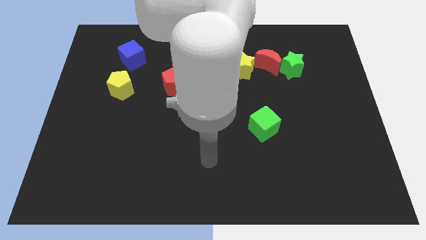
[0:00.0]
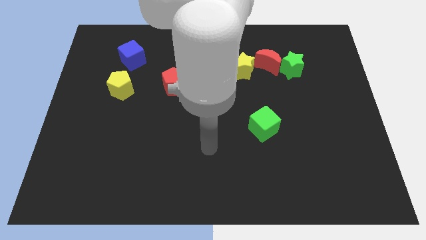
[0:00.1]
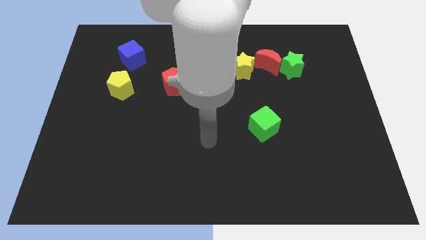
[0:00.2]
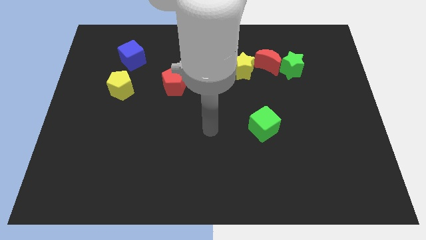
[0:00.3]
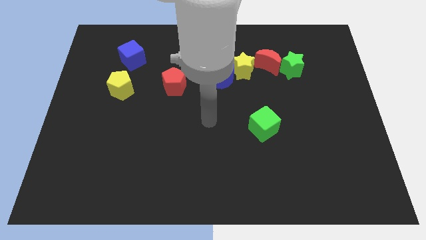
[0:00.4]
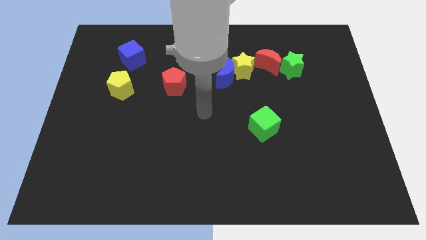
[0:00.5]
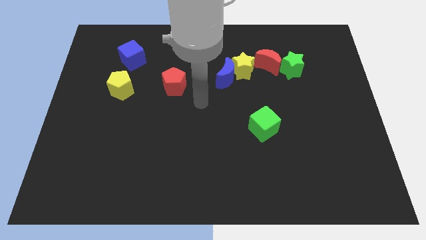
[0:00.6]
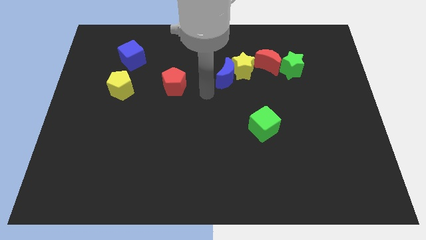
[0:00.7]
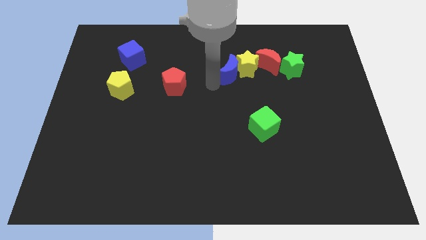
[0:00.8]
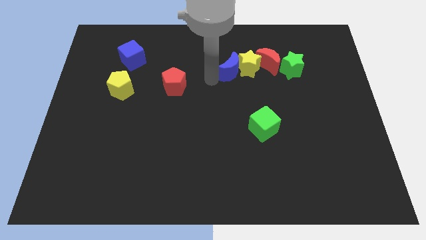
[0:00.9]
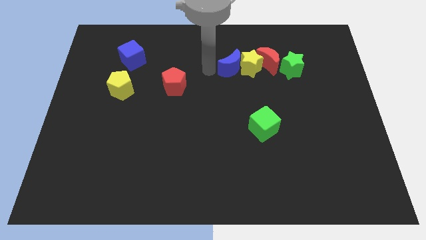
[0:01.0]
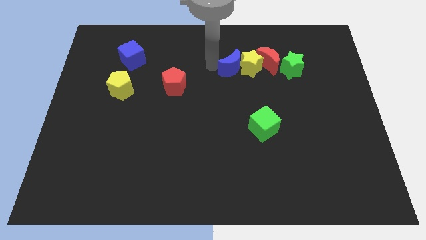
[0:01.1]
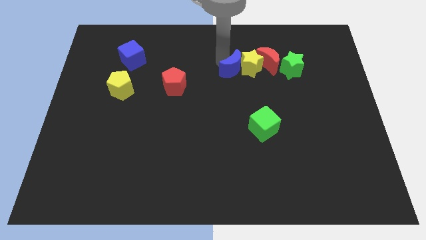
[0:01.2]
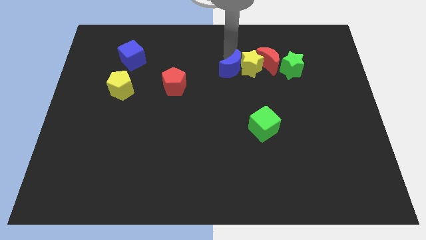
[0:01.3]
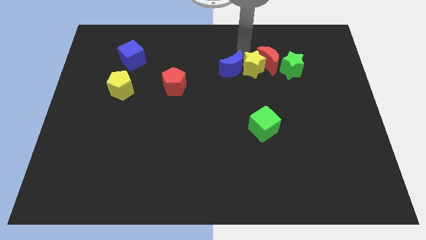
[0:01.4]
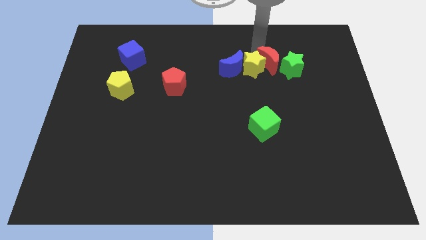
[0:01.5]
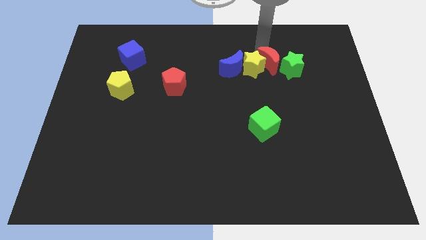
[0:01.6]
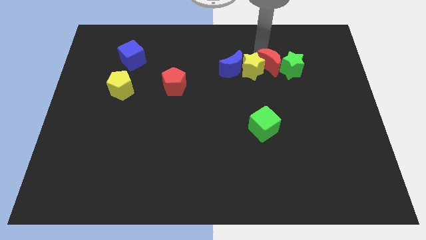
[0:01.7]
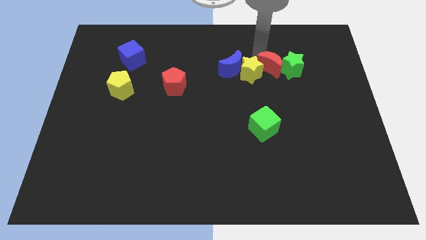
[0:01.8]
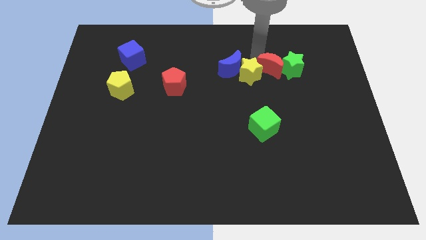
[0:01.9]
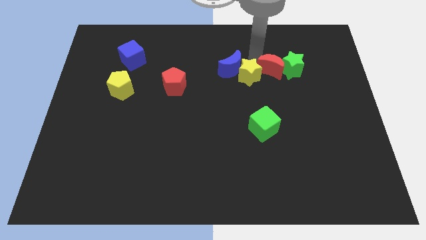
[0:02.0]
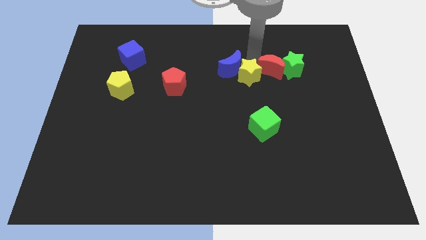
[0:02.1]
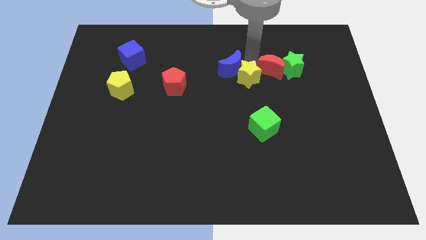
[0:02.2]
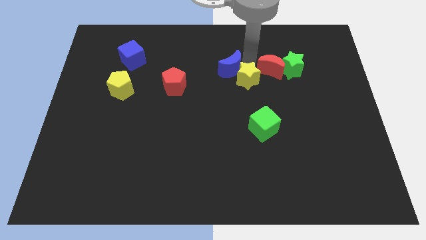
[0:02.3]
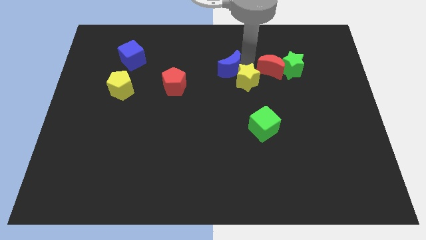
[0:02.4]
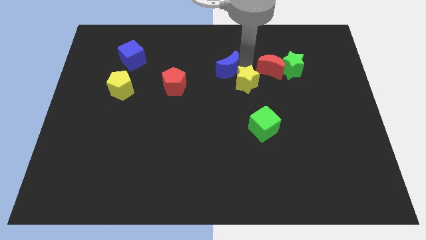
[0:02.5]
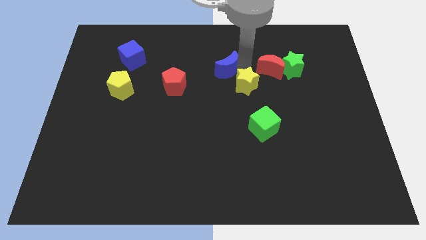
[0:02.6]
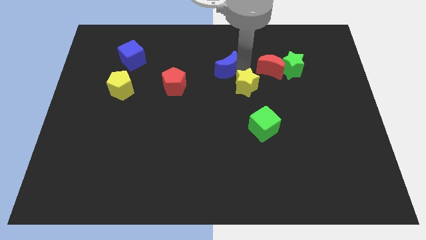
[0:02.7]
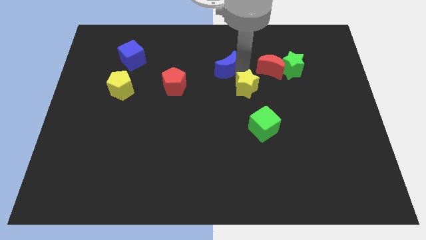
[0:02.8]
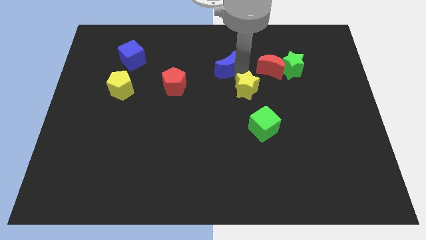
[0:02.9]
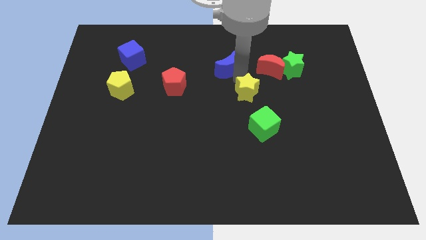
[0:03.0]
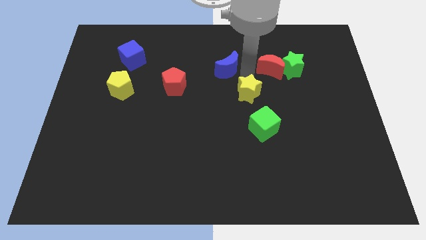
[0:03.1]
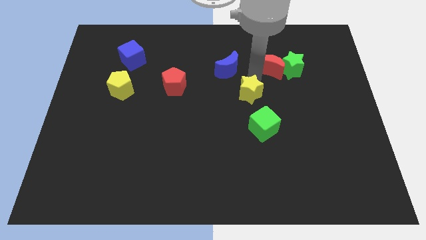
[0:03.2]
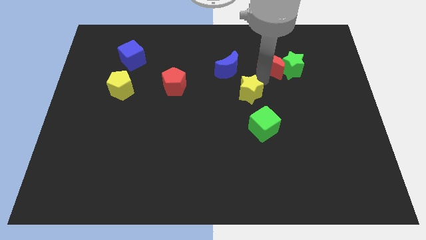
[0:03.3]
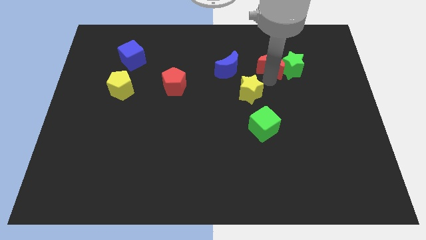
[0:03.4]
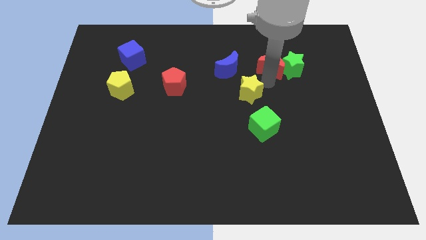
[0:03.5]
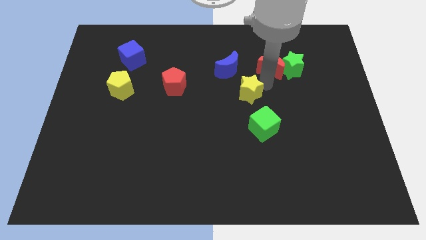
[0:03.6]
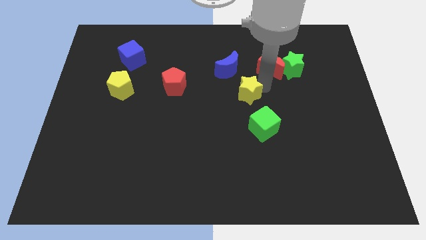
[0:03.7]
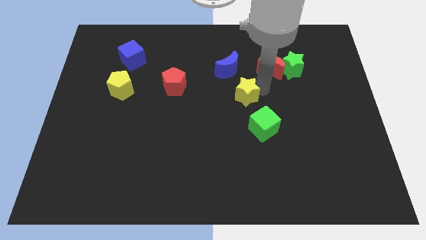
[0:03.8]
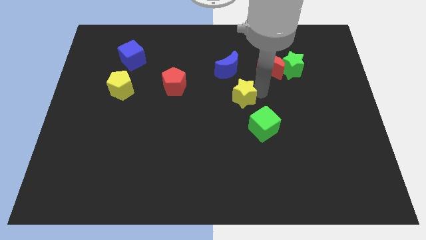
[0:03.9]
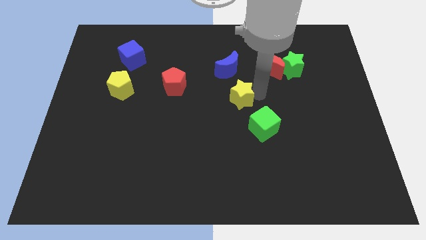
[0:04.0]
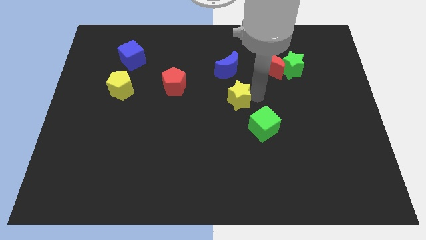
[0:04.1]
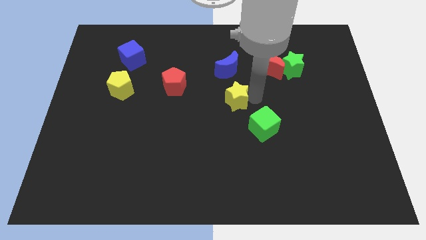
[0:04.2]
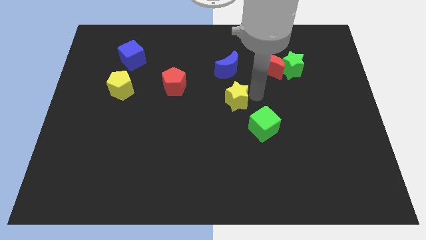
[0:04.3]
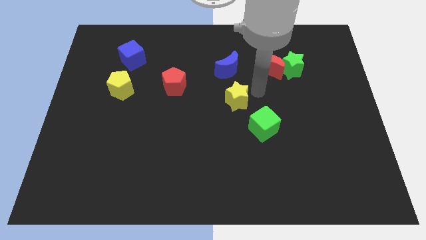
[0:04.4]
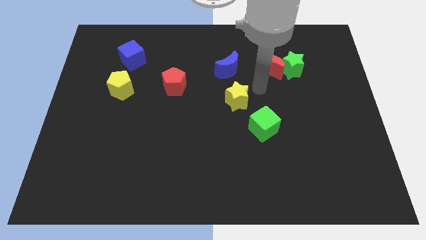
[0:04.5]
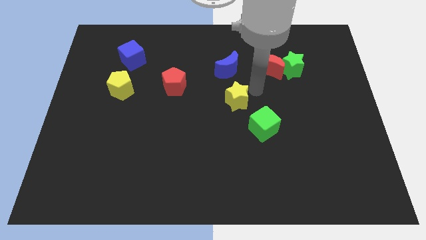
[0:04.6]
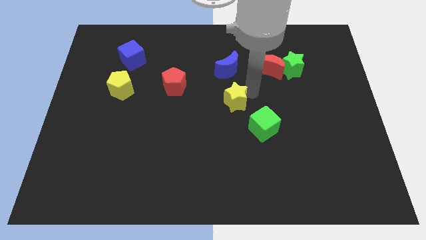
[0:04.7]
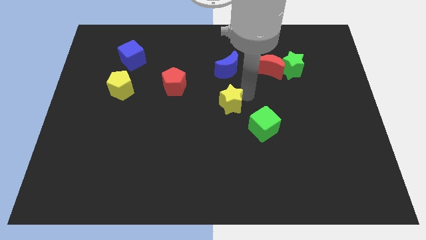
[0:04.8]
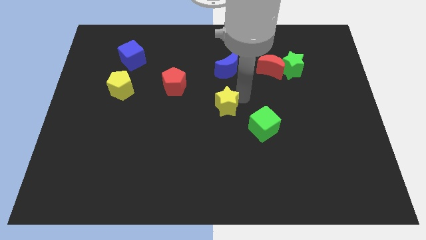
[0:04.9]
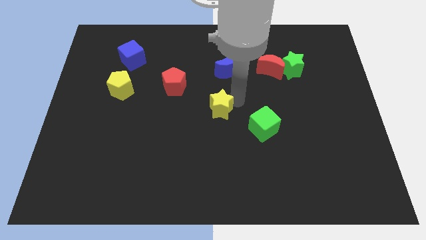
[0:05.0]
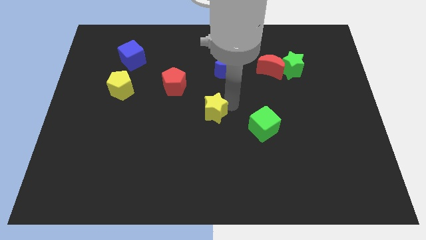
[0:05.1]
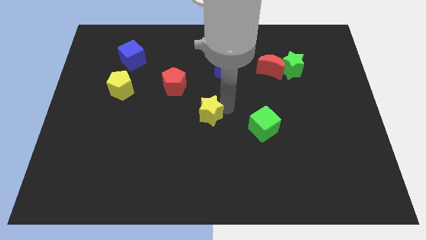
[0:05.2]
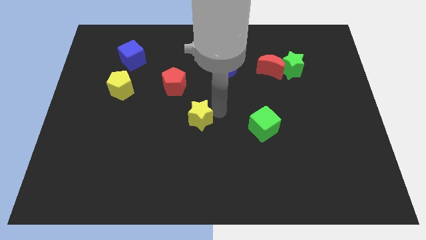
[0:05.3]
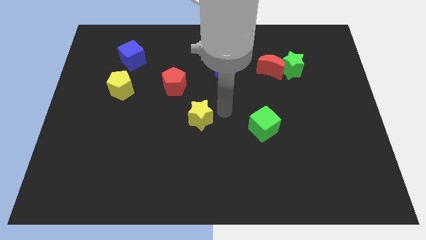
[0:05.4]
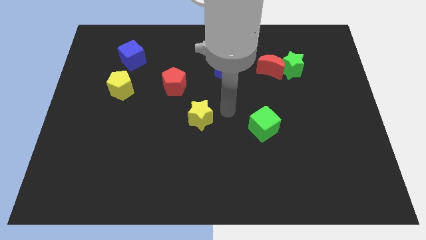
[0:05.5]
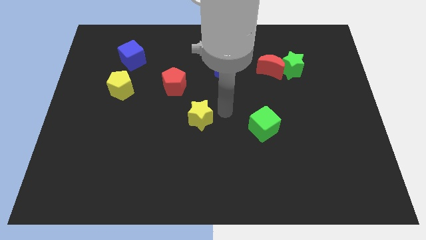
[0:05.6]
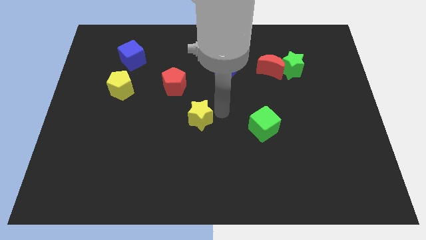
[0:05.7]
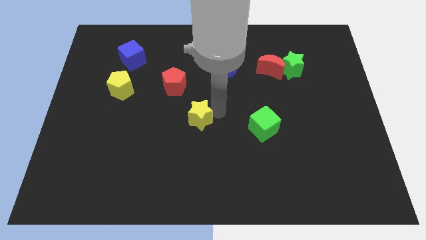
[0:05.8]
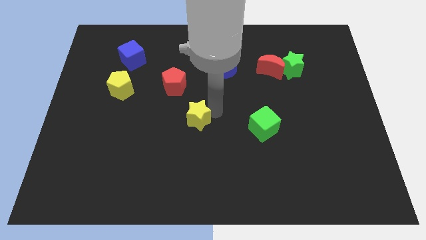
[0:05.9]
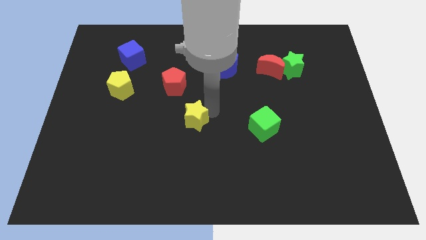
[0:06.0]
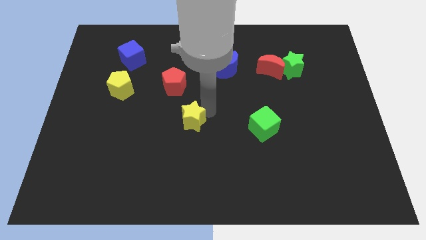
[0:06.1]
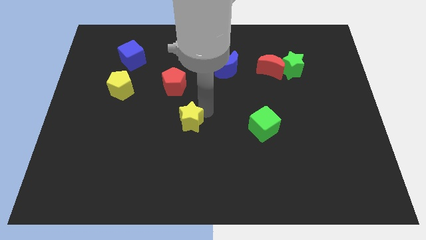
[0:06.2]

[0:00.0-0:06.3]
push the yellow star down and left

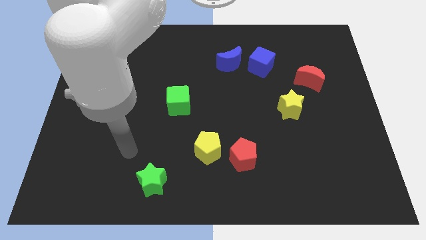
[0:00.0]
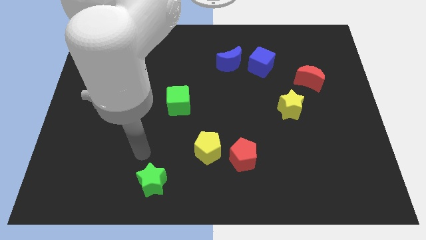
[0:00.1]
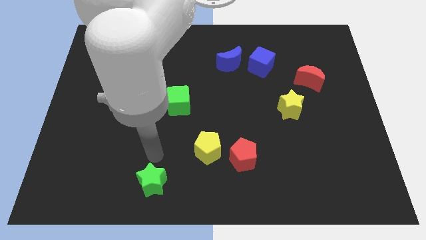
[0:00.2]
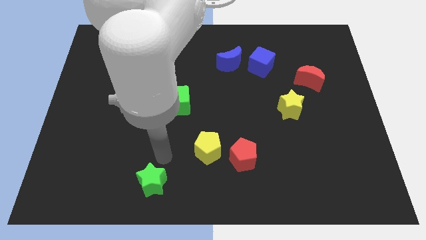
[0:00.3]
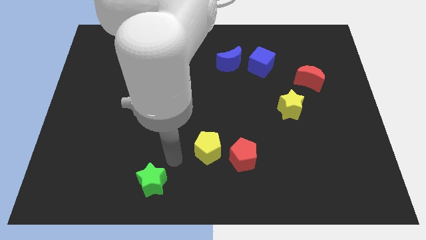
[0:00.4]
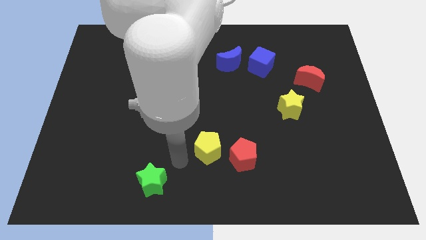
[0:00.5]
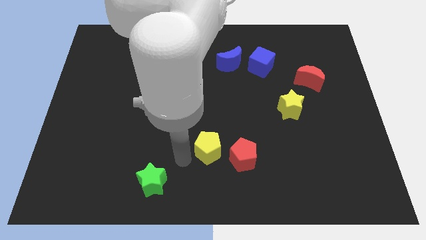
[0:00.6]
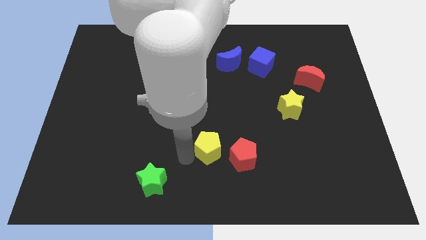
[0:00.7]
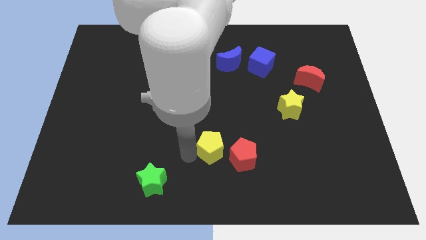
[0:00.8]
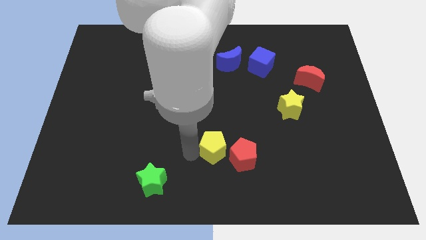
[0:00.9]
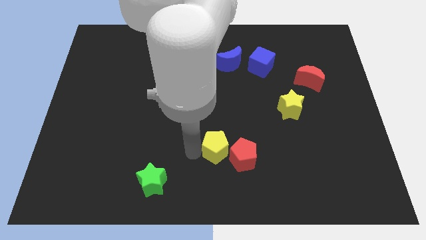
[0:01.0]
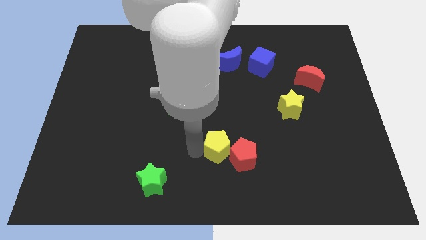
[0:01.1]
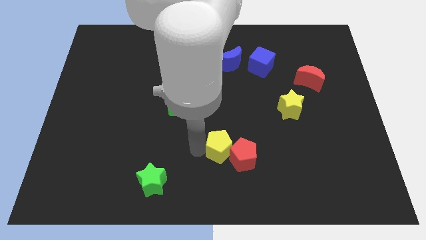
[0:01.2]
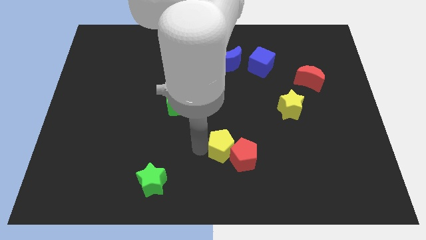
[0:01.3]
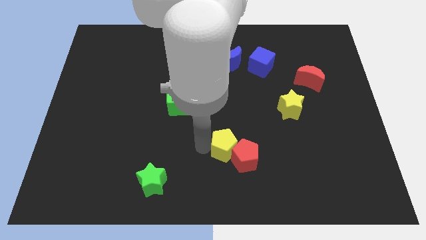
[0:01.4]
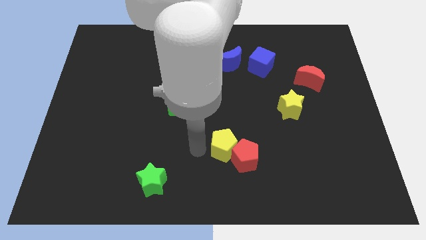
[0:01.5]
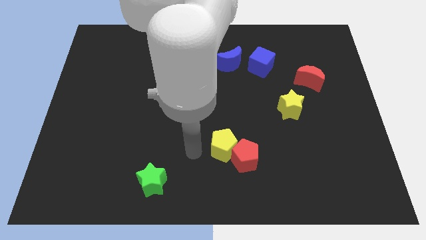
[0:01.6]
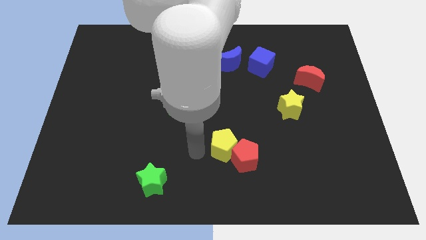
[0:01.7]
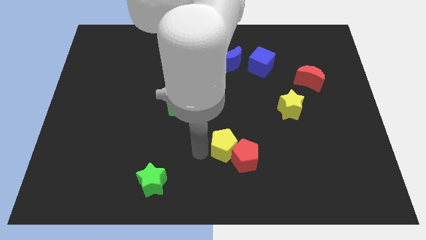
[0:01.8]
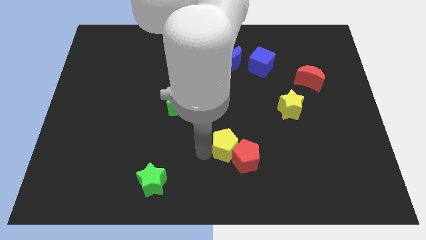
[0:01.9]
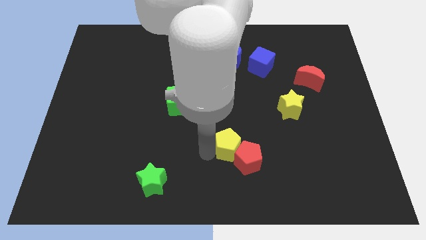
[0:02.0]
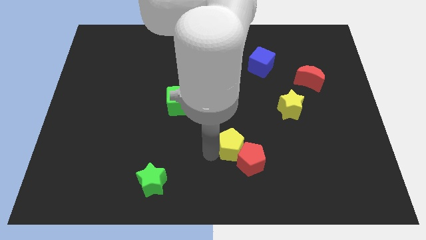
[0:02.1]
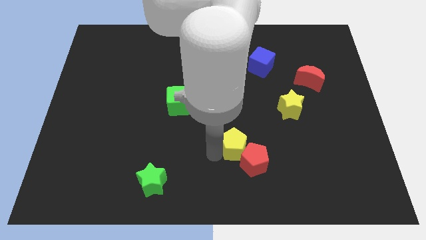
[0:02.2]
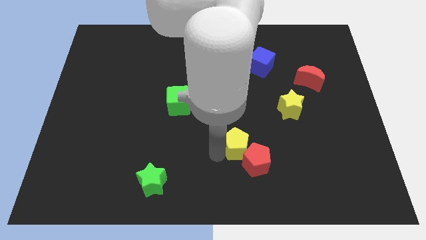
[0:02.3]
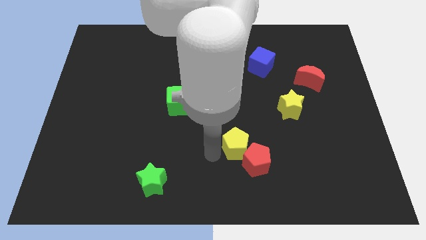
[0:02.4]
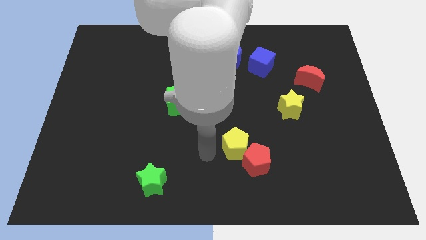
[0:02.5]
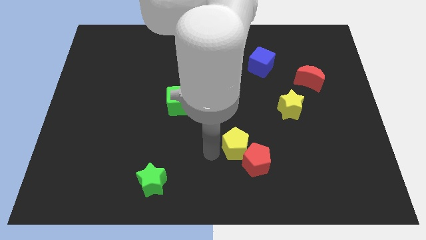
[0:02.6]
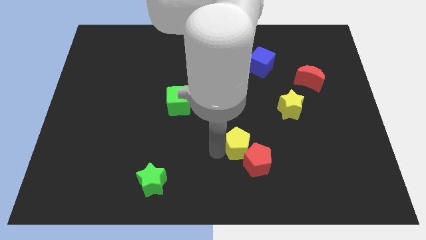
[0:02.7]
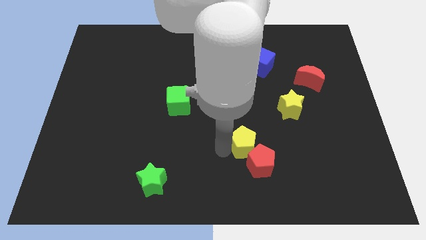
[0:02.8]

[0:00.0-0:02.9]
push the yellow pentagon a little right
